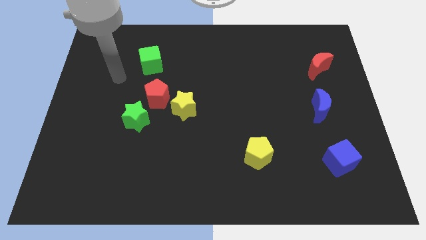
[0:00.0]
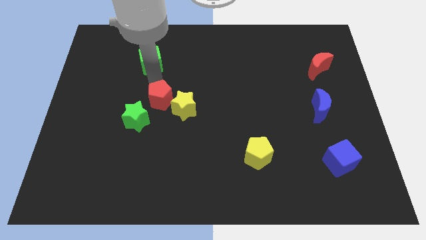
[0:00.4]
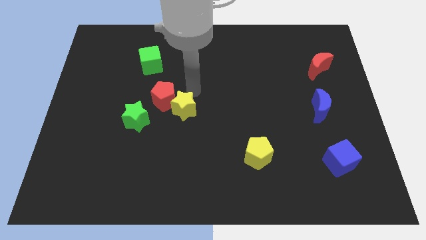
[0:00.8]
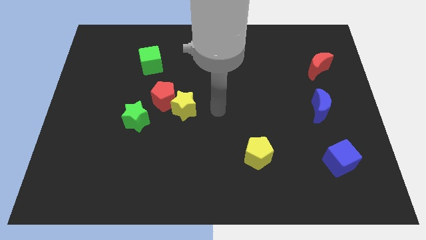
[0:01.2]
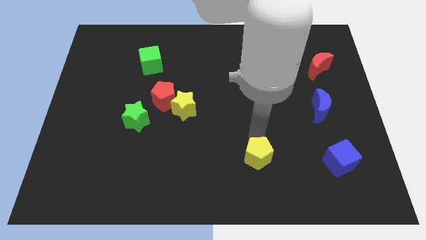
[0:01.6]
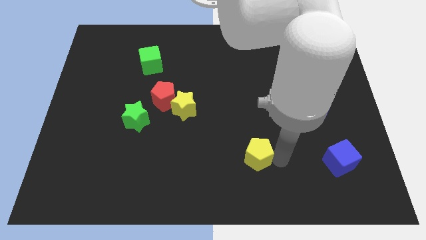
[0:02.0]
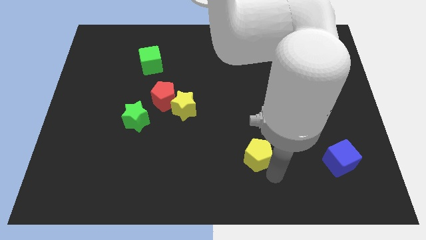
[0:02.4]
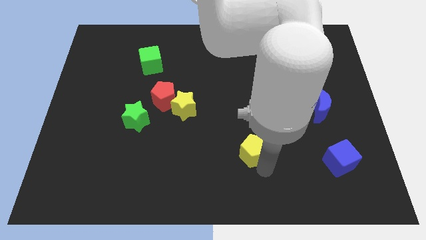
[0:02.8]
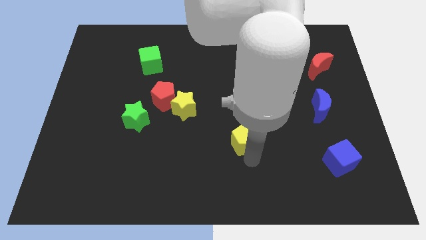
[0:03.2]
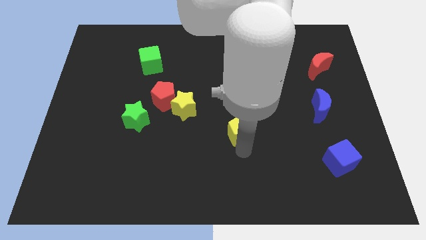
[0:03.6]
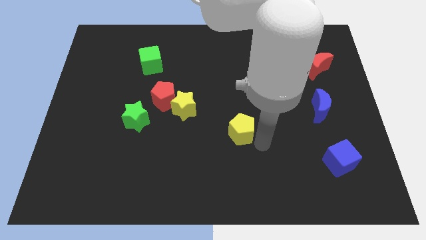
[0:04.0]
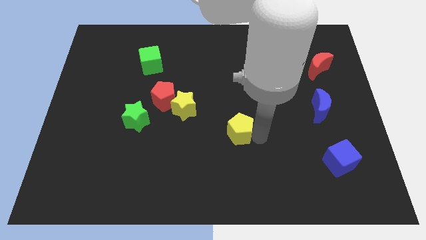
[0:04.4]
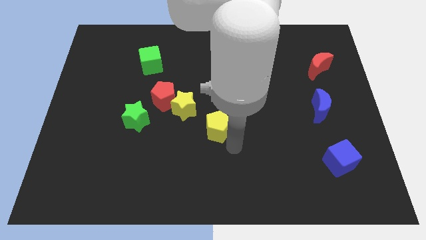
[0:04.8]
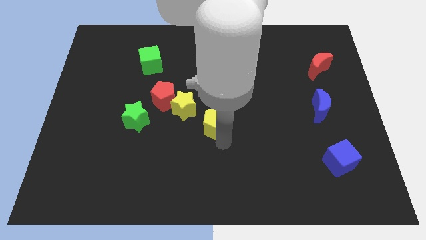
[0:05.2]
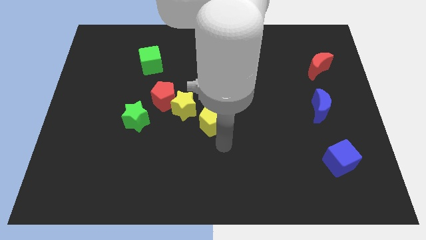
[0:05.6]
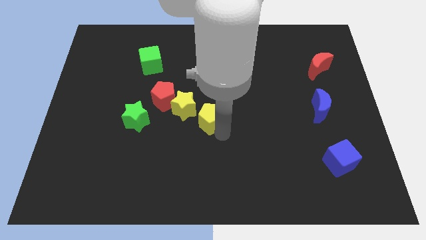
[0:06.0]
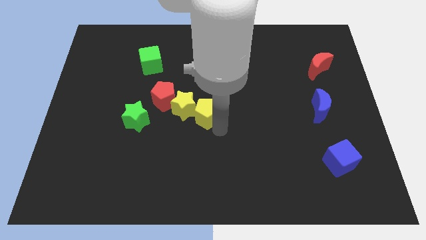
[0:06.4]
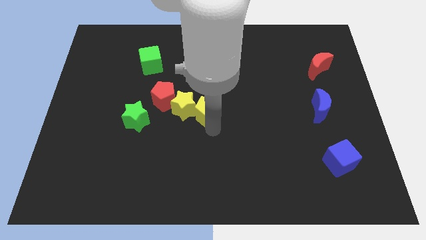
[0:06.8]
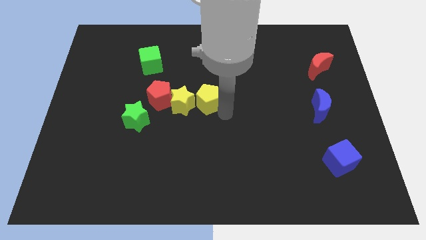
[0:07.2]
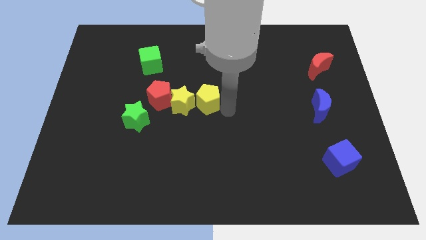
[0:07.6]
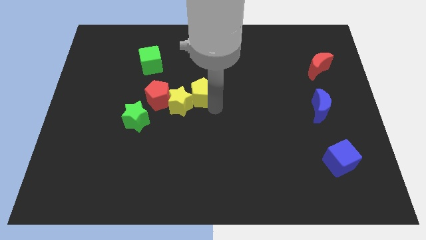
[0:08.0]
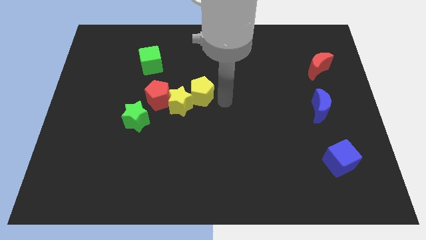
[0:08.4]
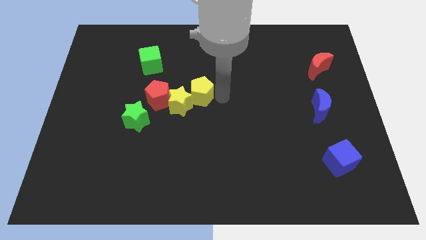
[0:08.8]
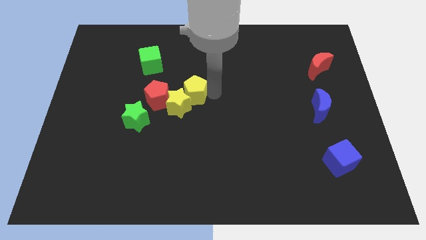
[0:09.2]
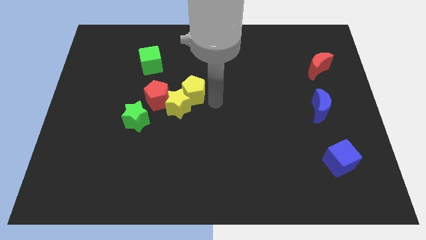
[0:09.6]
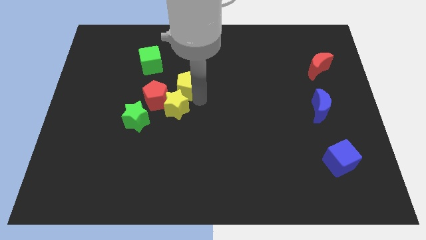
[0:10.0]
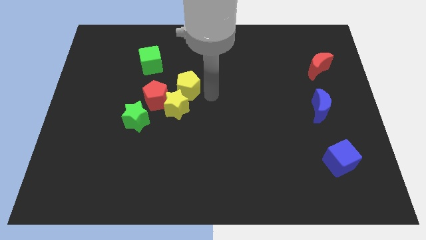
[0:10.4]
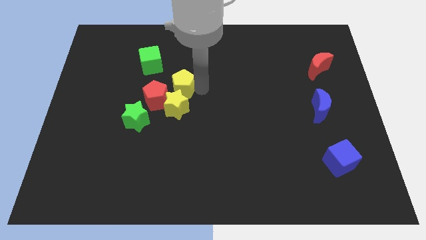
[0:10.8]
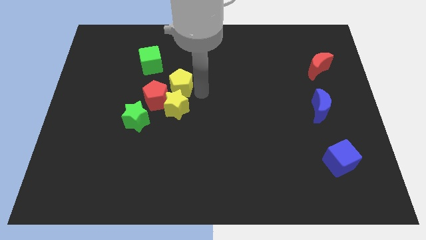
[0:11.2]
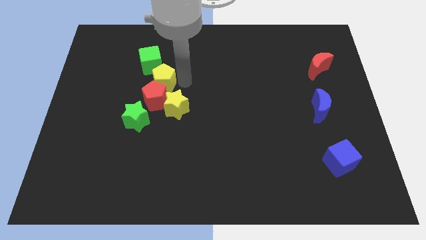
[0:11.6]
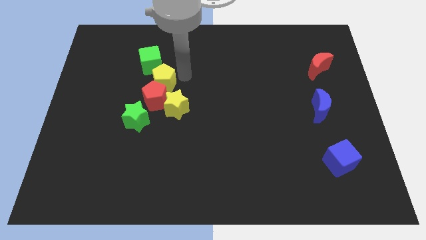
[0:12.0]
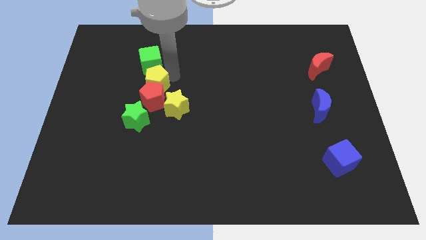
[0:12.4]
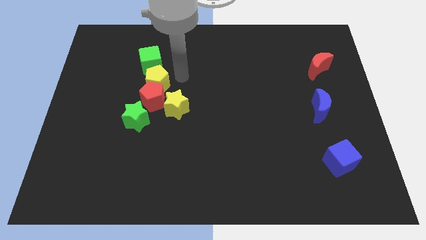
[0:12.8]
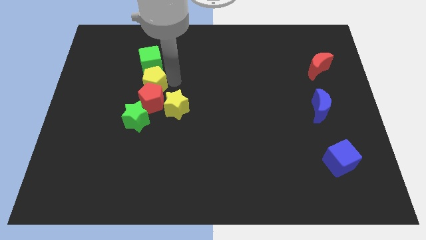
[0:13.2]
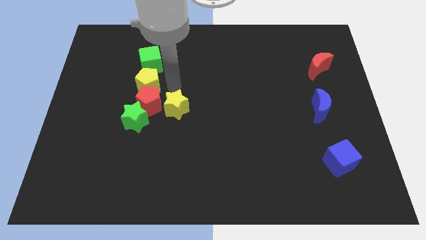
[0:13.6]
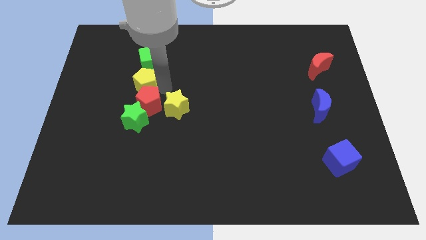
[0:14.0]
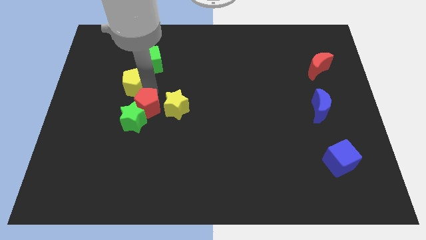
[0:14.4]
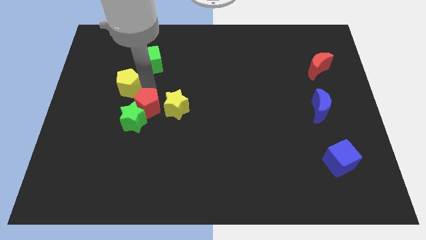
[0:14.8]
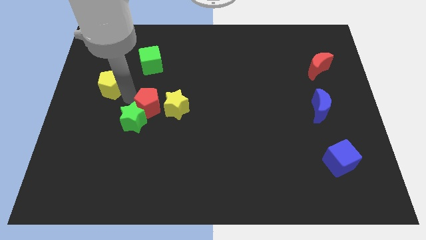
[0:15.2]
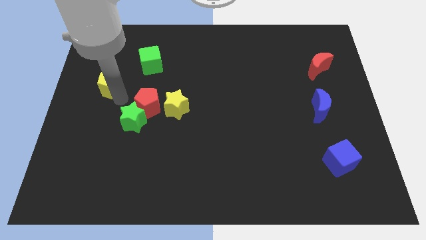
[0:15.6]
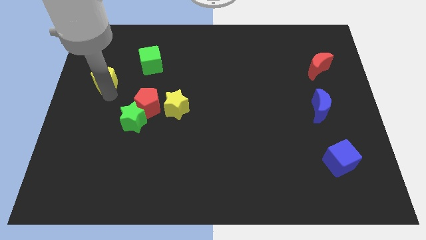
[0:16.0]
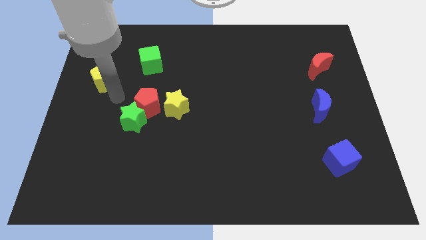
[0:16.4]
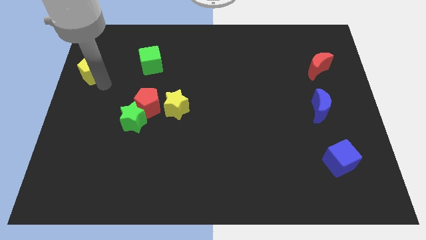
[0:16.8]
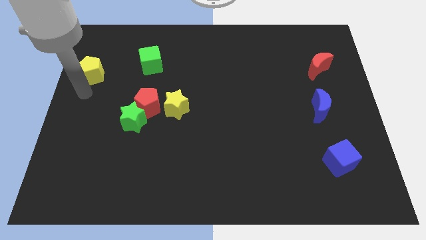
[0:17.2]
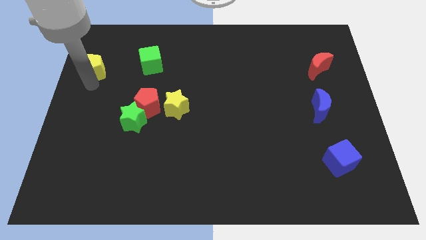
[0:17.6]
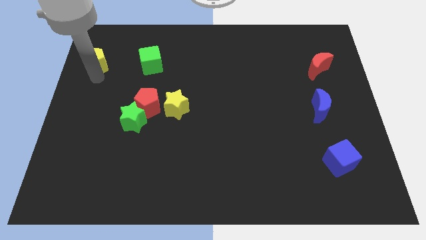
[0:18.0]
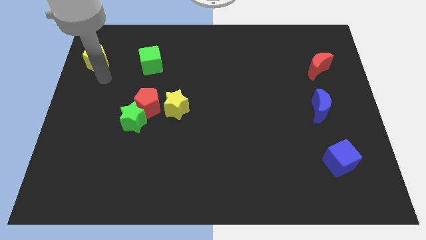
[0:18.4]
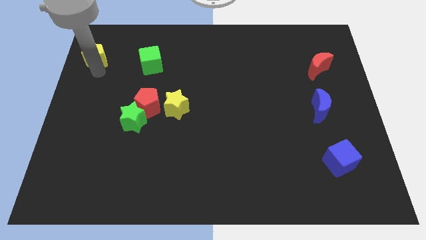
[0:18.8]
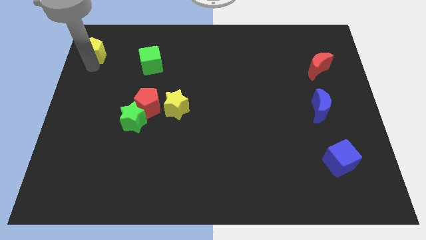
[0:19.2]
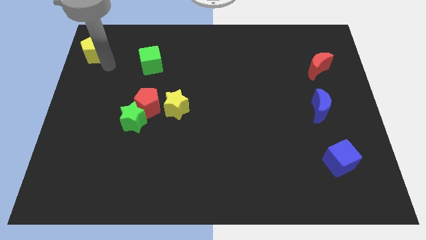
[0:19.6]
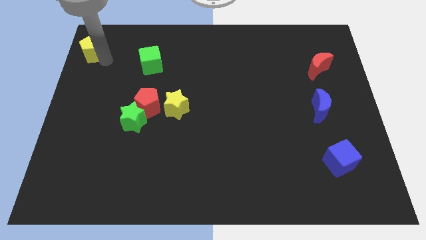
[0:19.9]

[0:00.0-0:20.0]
move the yellow pentagon to the top left of the board

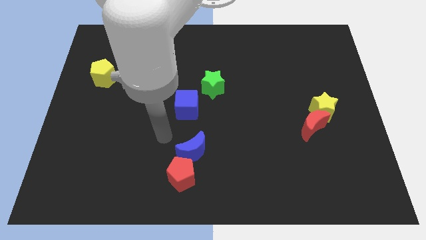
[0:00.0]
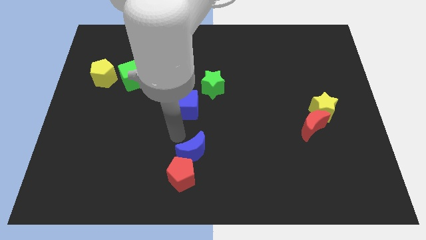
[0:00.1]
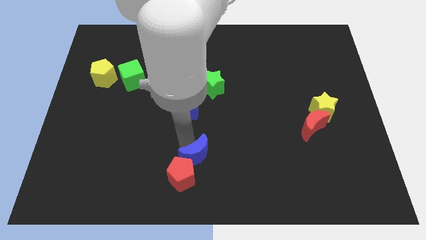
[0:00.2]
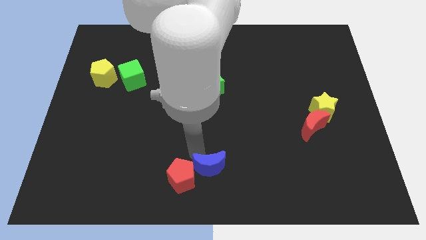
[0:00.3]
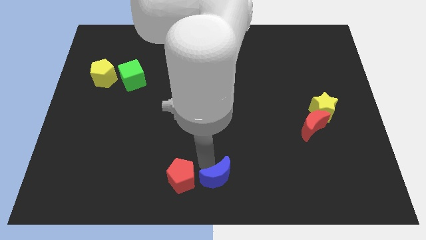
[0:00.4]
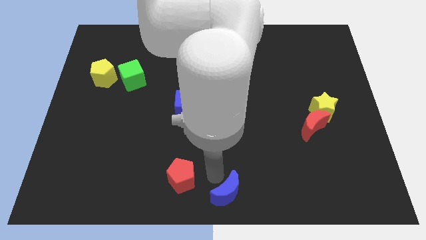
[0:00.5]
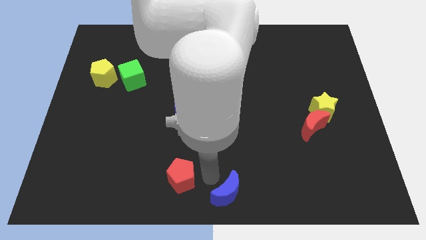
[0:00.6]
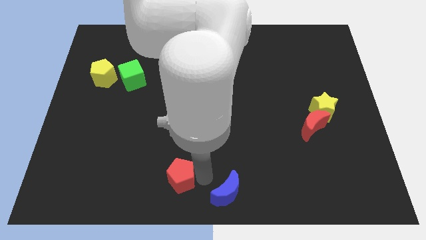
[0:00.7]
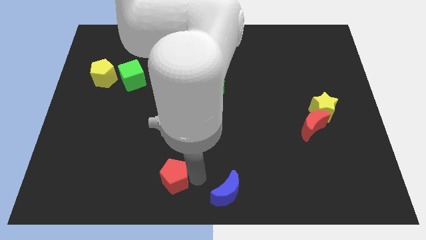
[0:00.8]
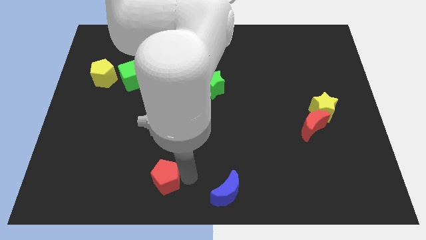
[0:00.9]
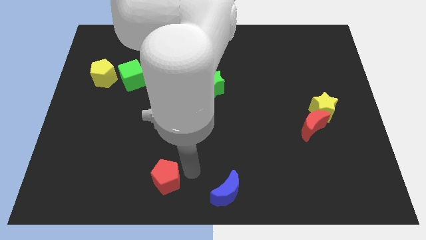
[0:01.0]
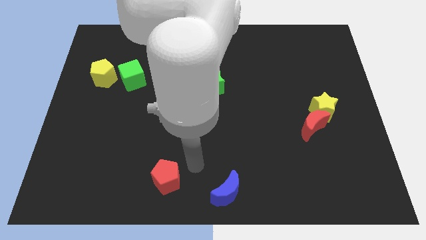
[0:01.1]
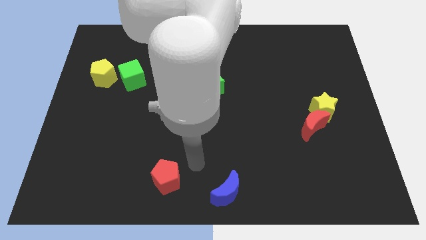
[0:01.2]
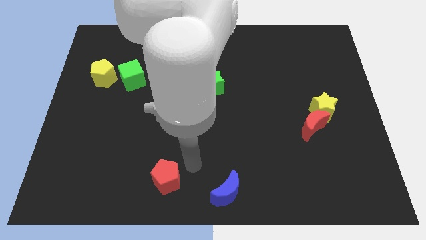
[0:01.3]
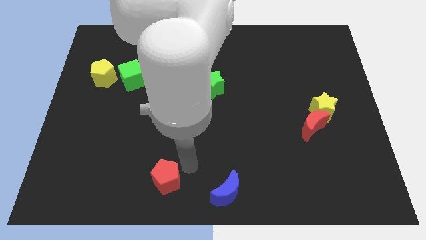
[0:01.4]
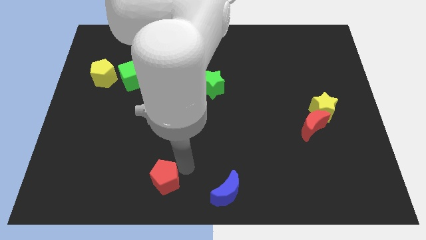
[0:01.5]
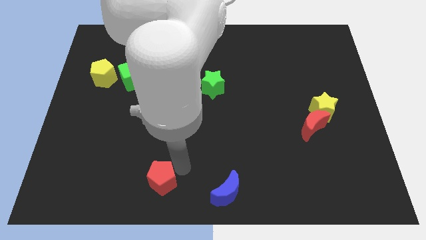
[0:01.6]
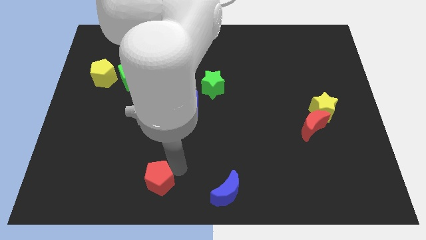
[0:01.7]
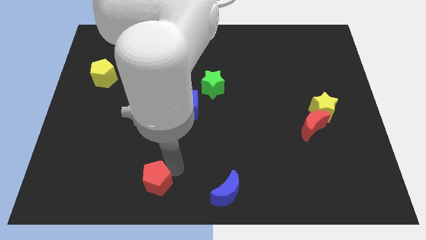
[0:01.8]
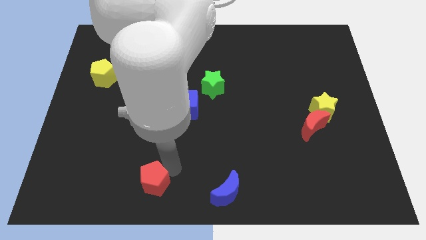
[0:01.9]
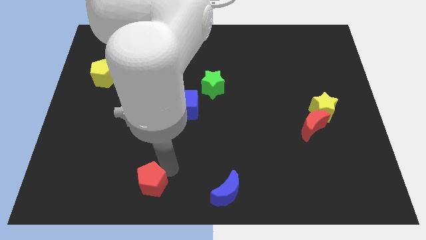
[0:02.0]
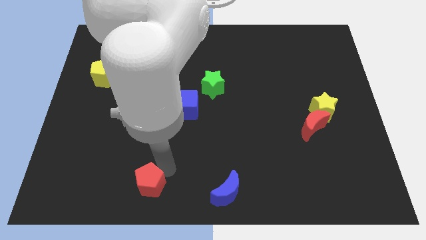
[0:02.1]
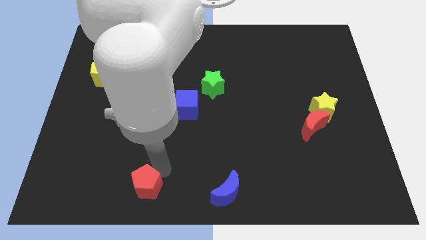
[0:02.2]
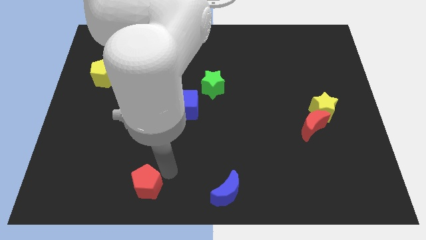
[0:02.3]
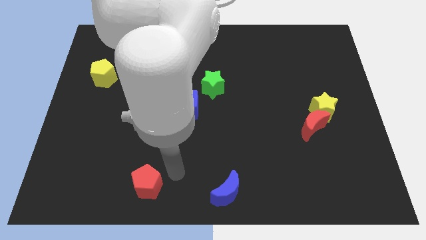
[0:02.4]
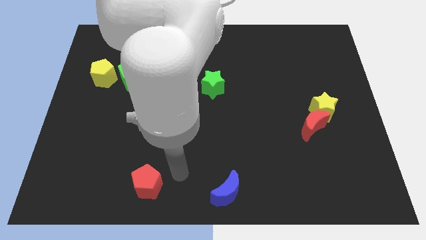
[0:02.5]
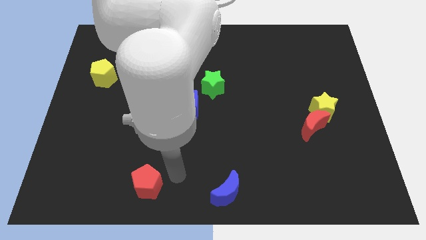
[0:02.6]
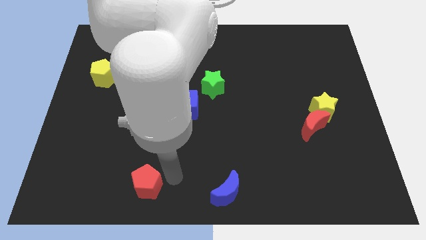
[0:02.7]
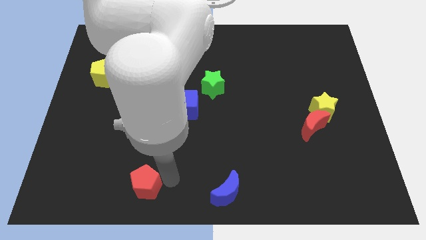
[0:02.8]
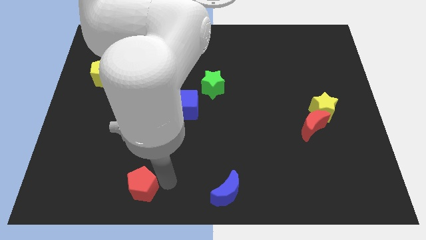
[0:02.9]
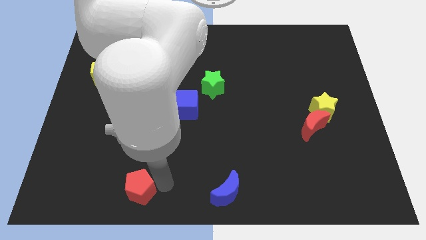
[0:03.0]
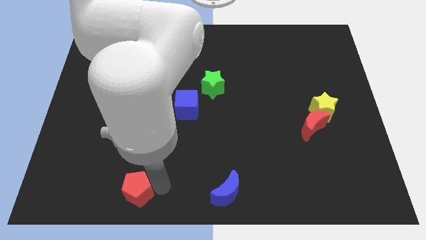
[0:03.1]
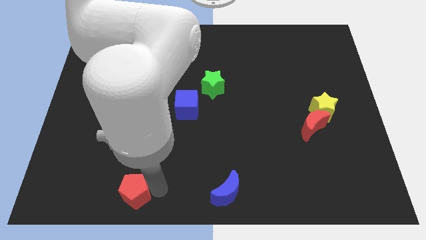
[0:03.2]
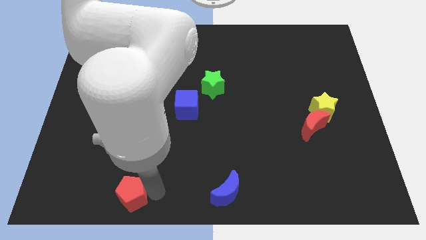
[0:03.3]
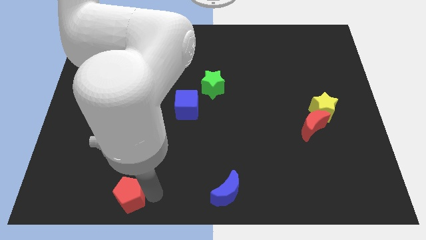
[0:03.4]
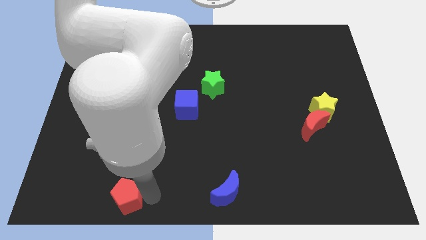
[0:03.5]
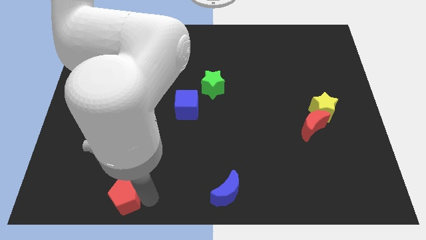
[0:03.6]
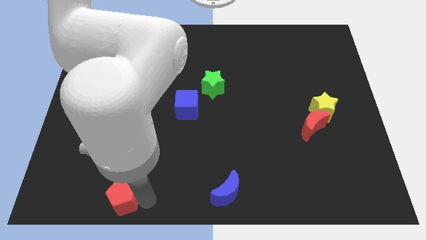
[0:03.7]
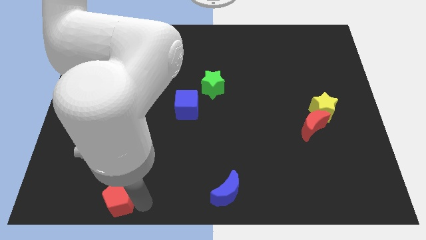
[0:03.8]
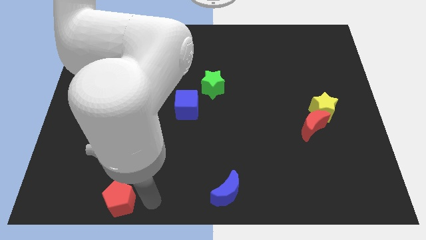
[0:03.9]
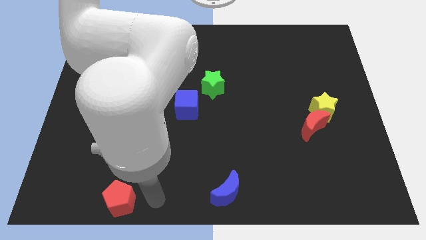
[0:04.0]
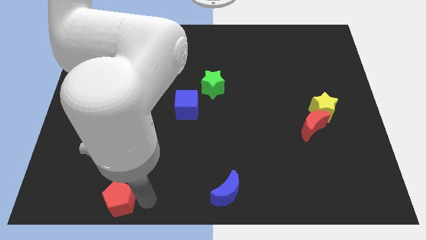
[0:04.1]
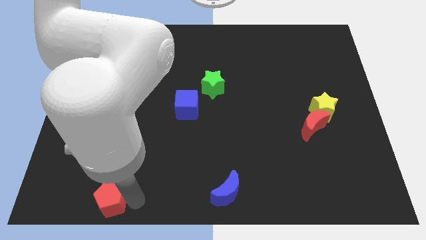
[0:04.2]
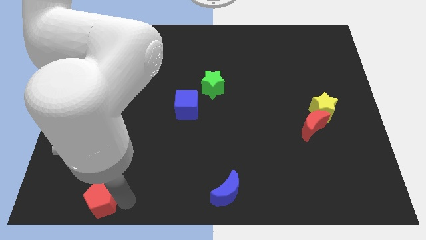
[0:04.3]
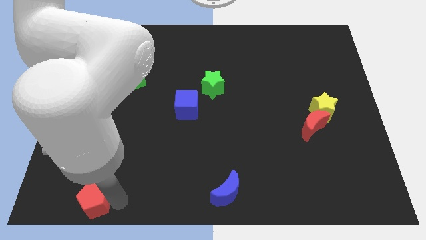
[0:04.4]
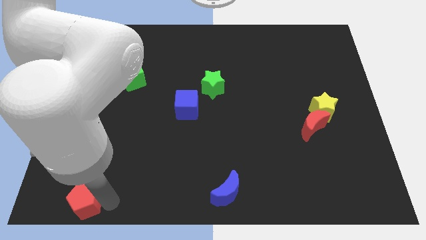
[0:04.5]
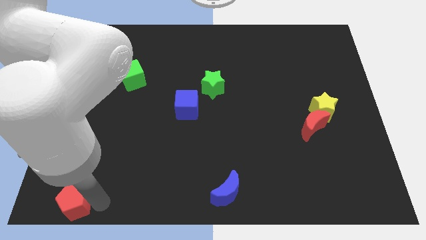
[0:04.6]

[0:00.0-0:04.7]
move the red pentagon to the bottom left of the board
